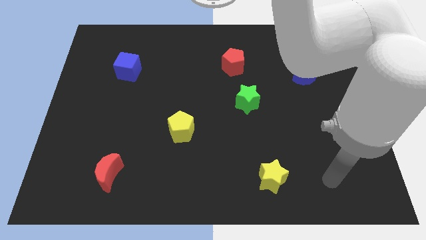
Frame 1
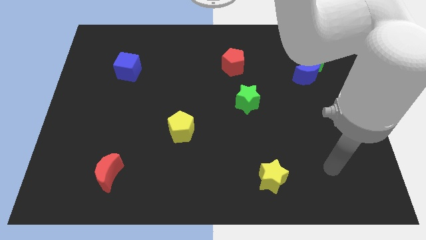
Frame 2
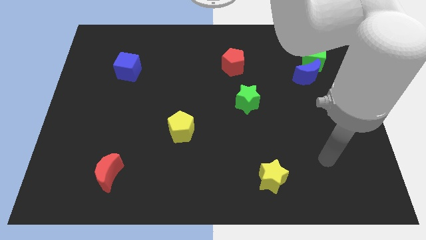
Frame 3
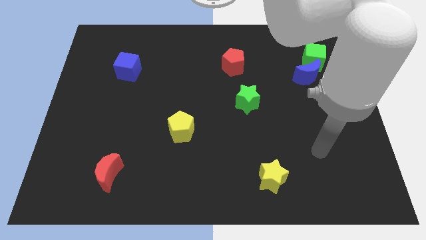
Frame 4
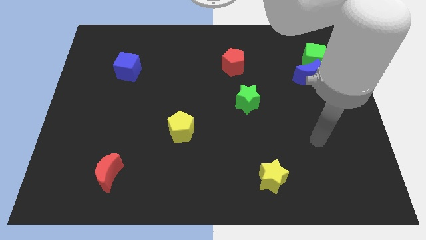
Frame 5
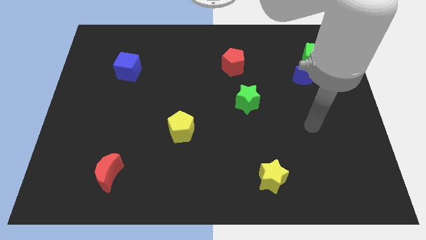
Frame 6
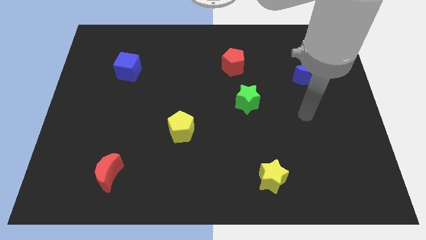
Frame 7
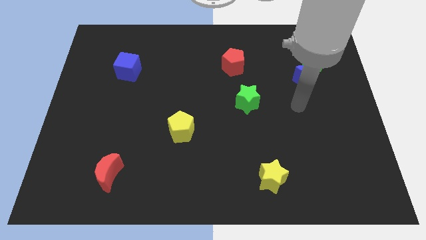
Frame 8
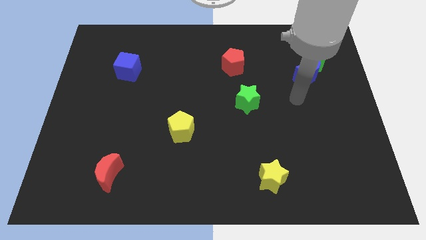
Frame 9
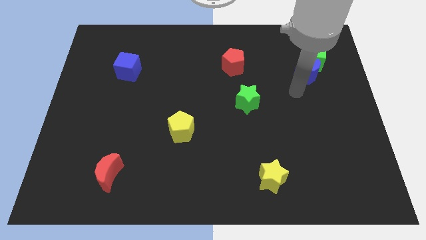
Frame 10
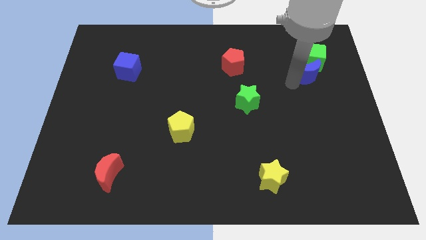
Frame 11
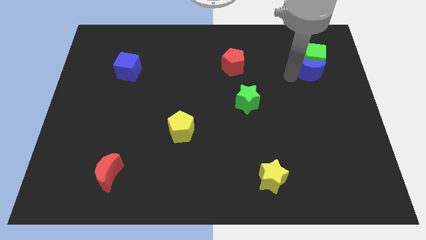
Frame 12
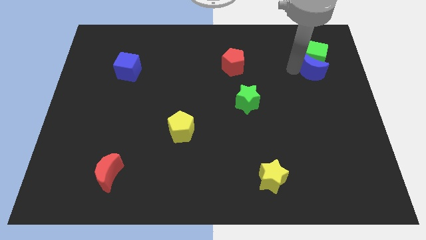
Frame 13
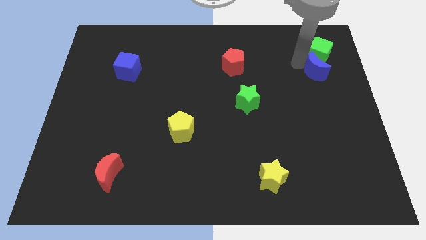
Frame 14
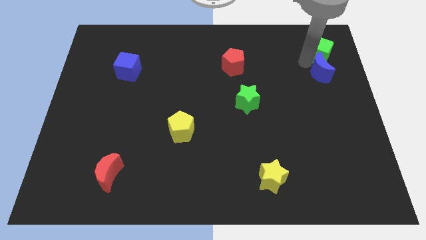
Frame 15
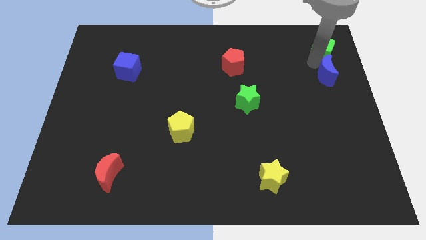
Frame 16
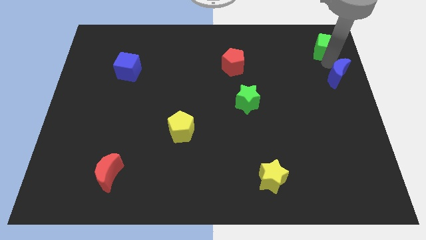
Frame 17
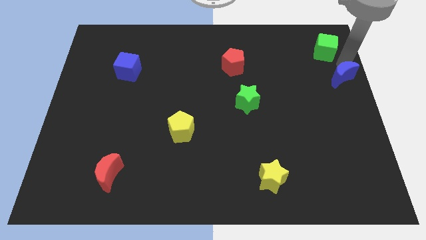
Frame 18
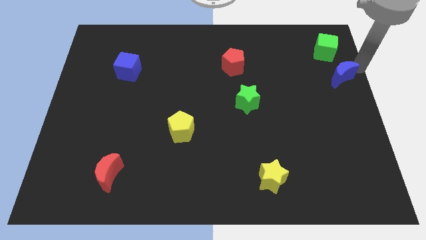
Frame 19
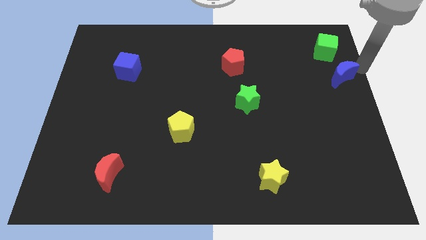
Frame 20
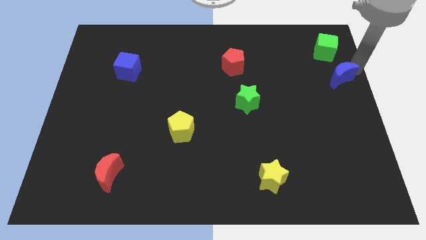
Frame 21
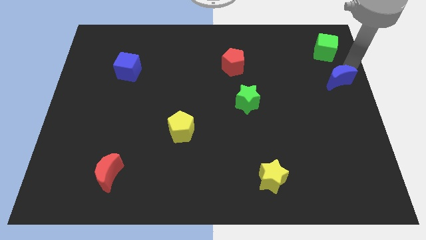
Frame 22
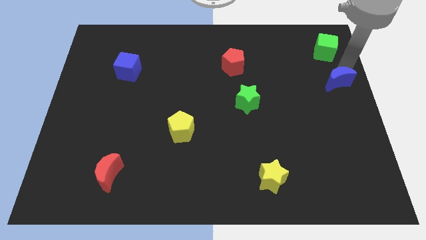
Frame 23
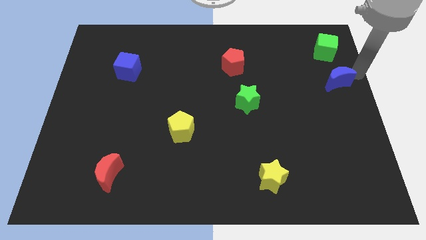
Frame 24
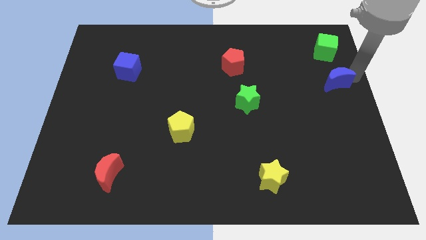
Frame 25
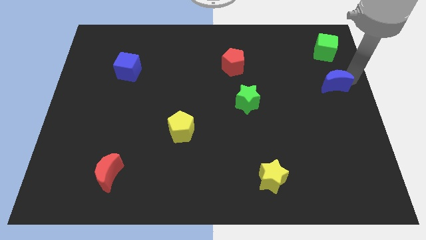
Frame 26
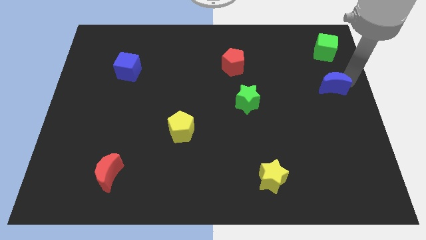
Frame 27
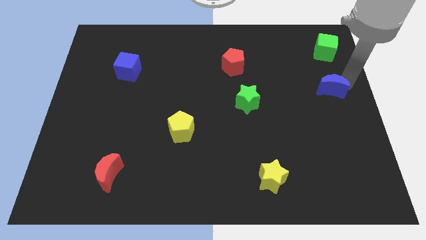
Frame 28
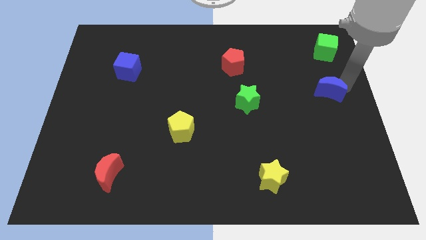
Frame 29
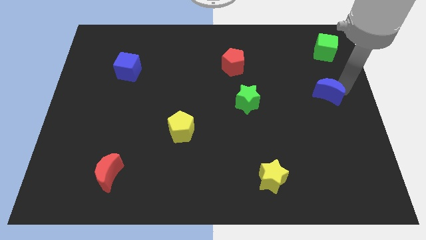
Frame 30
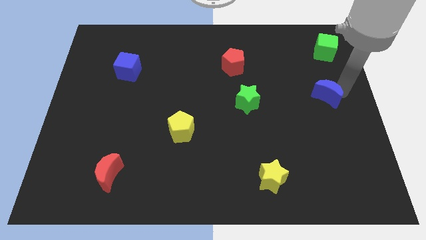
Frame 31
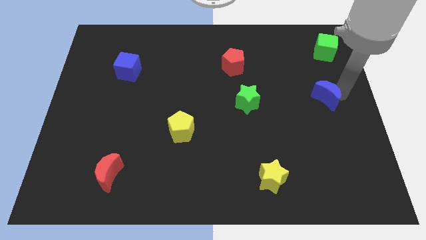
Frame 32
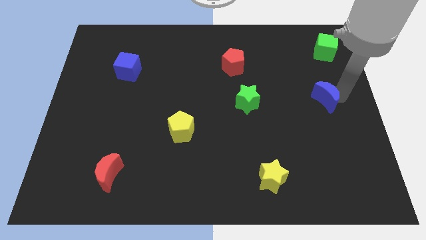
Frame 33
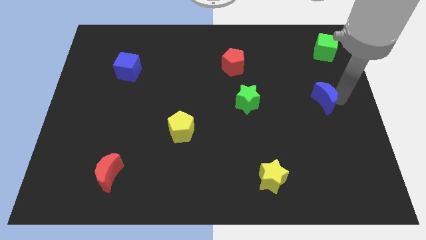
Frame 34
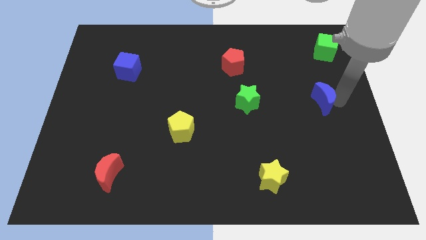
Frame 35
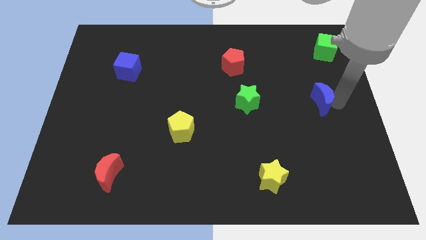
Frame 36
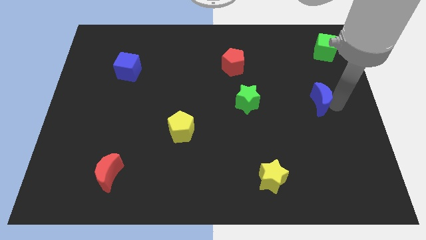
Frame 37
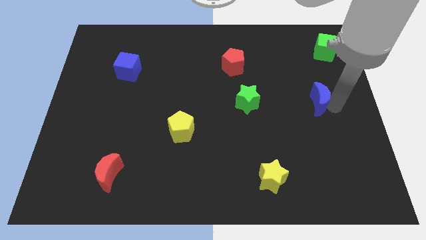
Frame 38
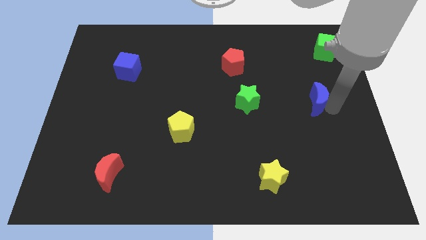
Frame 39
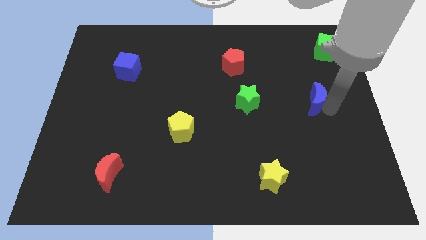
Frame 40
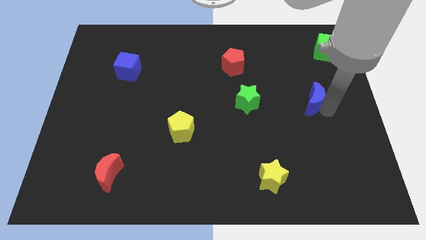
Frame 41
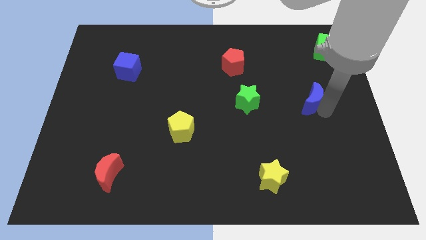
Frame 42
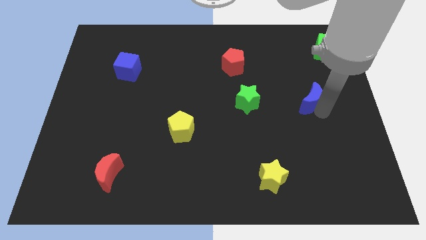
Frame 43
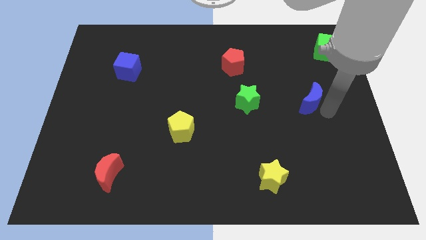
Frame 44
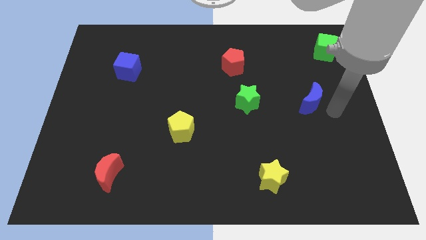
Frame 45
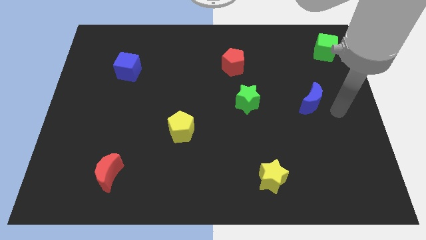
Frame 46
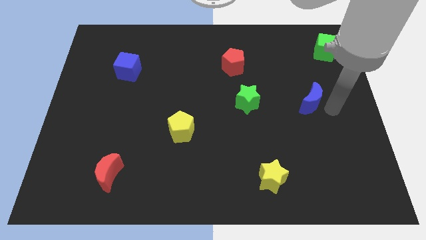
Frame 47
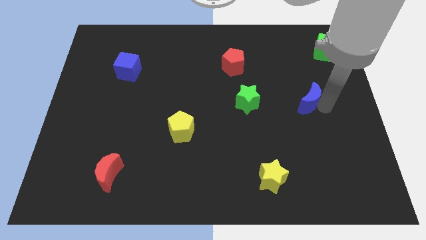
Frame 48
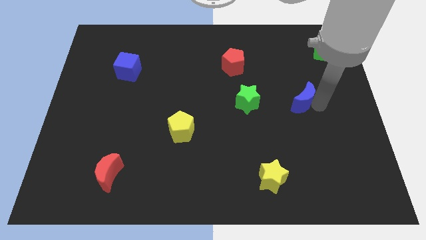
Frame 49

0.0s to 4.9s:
slightly push the blue moon down and to the left

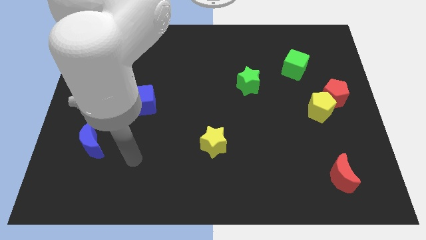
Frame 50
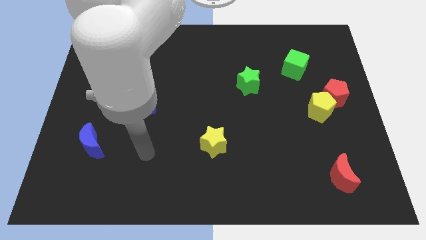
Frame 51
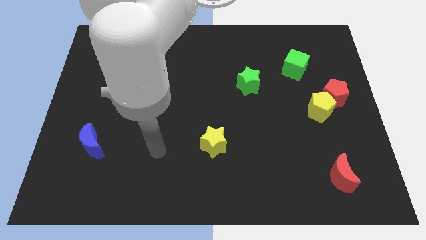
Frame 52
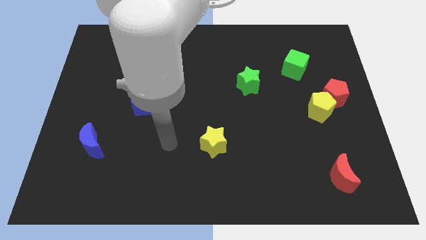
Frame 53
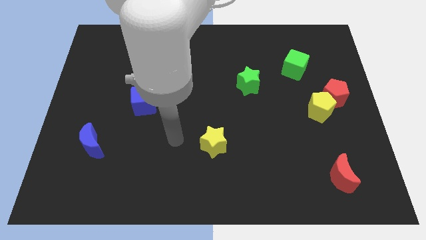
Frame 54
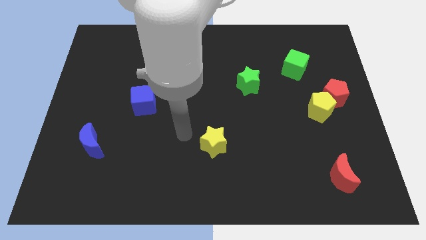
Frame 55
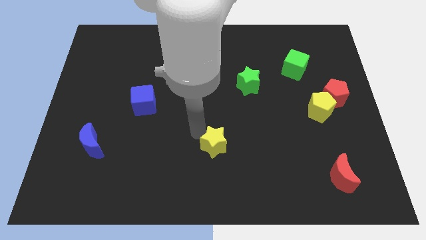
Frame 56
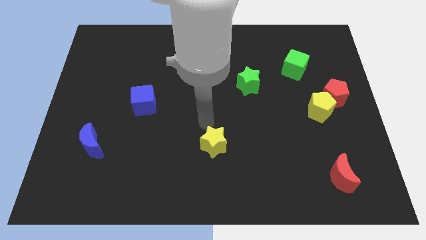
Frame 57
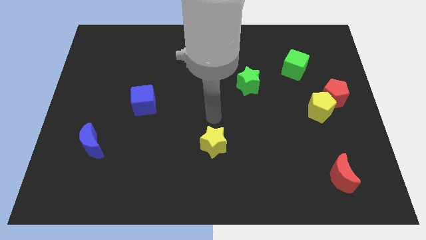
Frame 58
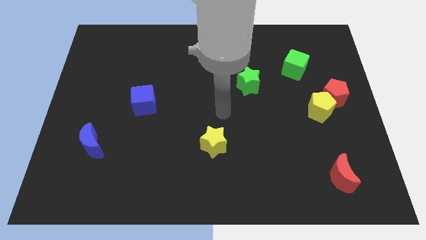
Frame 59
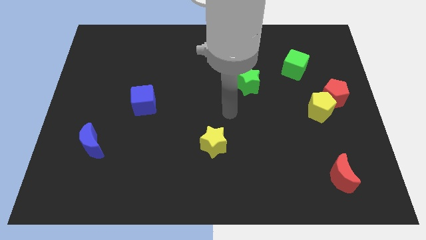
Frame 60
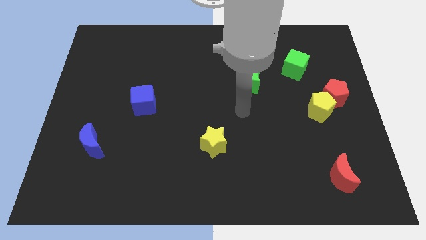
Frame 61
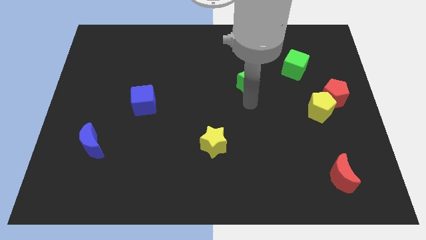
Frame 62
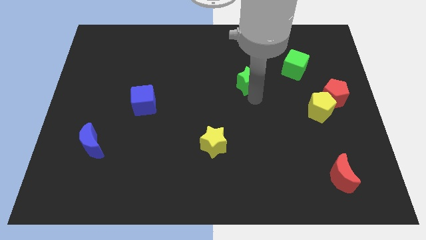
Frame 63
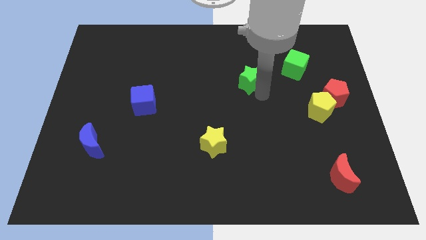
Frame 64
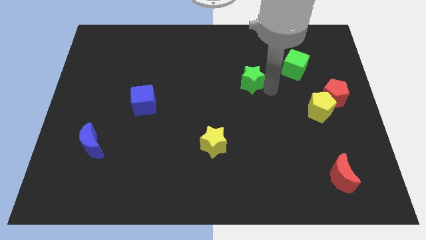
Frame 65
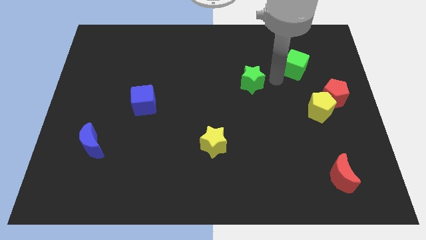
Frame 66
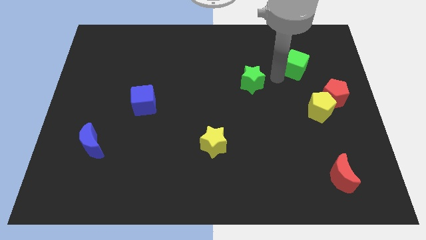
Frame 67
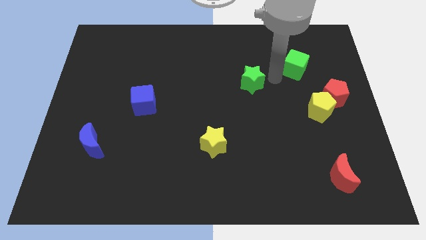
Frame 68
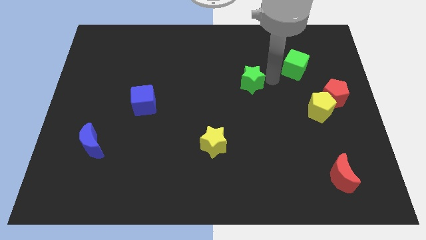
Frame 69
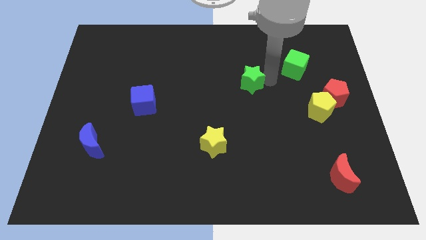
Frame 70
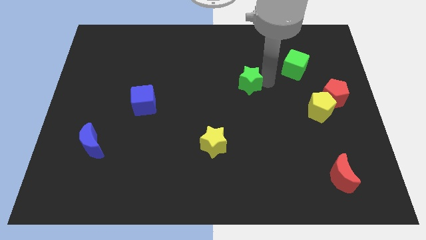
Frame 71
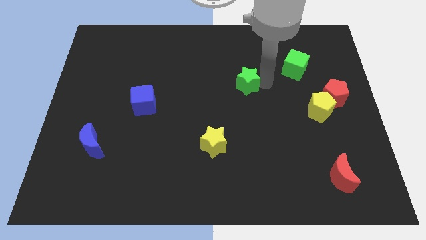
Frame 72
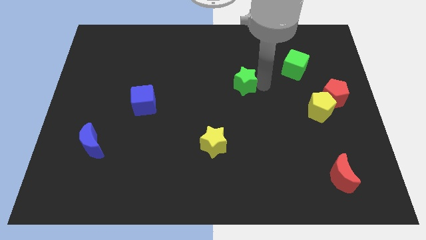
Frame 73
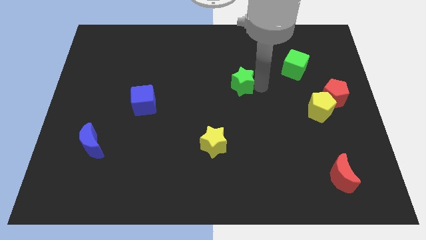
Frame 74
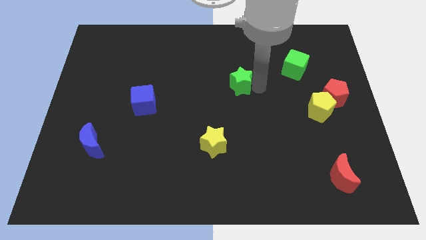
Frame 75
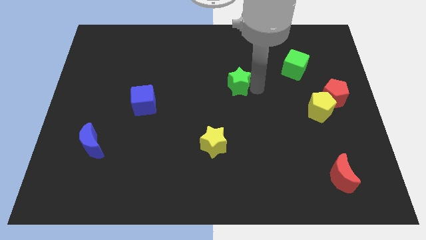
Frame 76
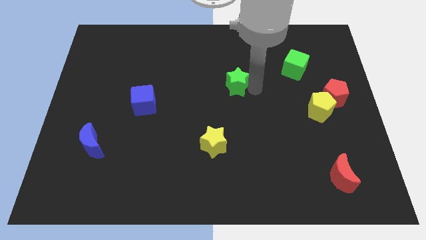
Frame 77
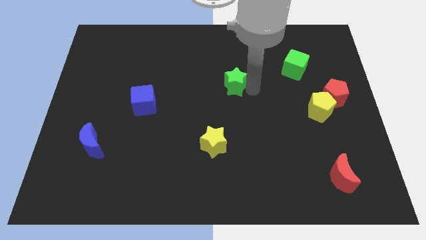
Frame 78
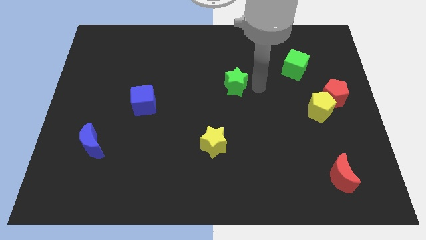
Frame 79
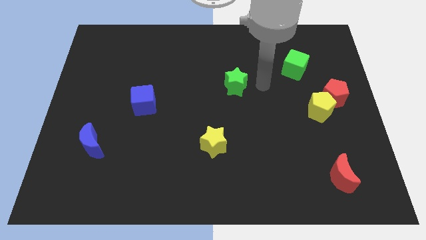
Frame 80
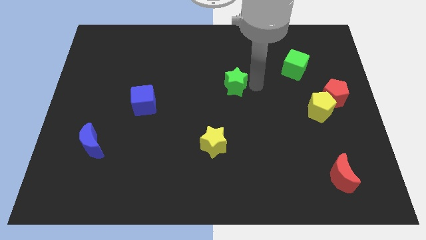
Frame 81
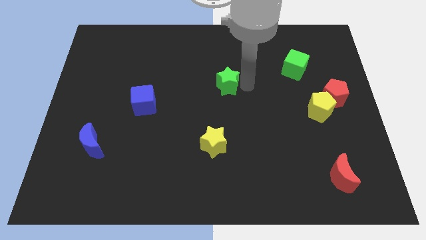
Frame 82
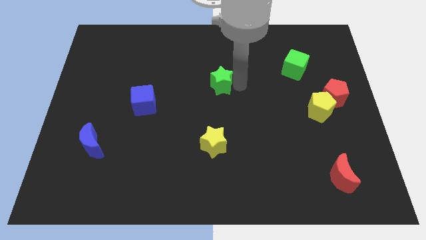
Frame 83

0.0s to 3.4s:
move the green star slightly to the left
